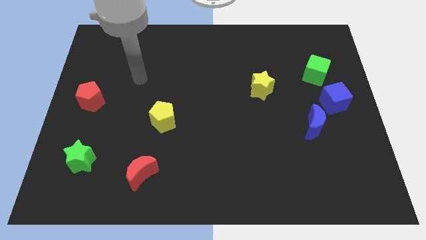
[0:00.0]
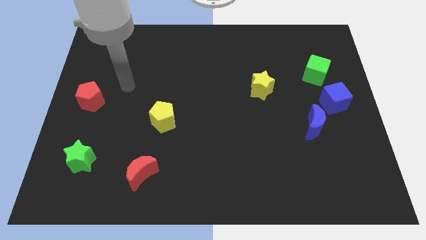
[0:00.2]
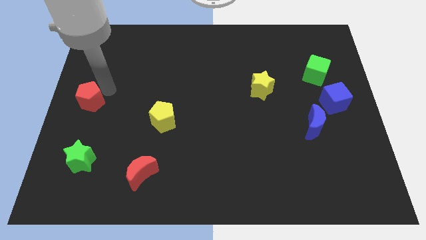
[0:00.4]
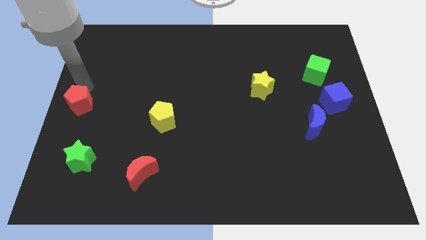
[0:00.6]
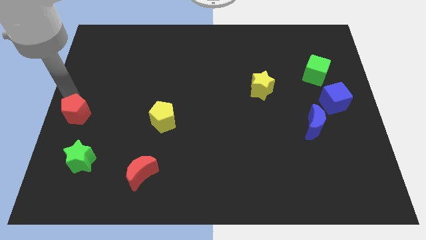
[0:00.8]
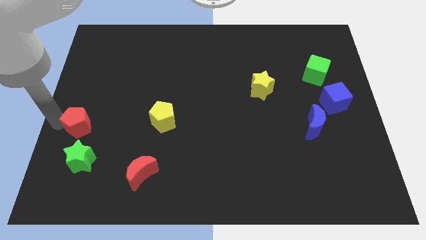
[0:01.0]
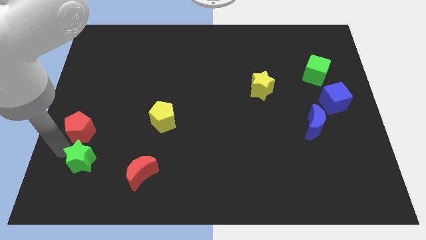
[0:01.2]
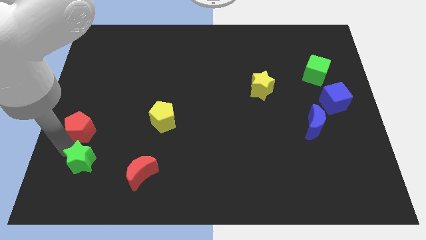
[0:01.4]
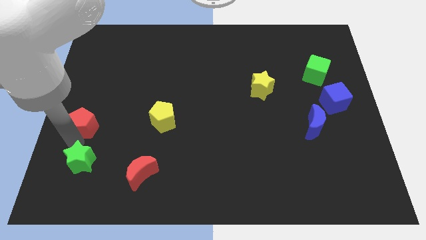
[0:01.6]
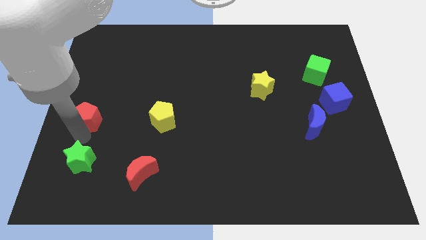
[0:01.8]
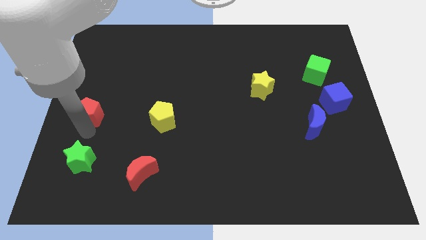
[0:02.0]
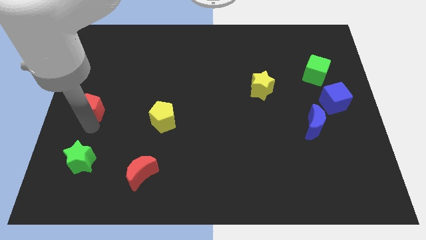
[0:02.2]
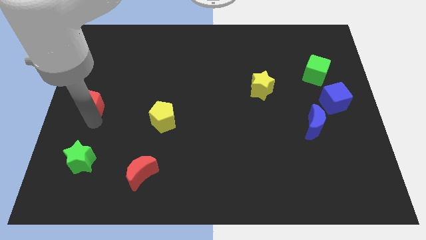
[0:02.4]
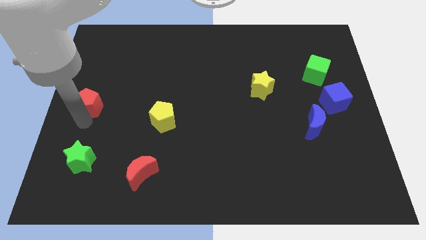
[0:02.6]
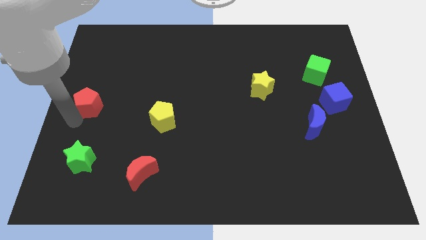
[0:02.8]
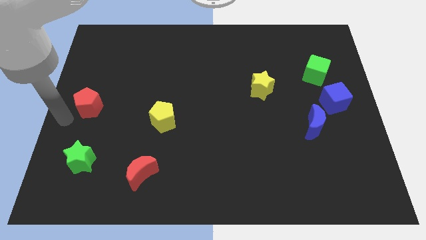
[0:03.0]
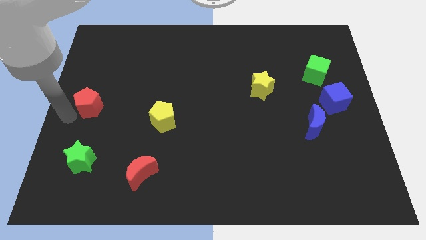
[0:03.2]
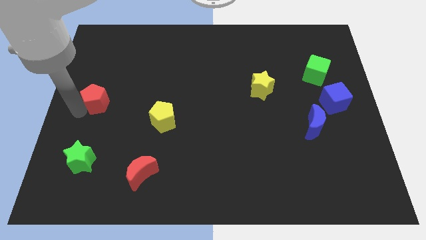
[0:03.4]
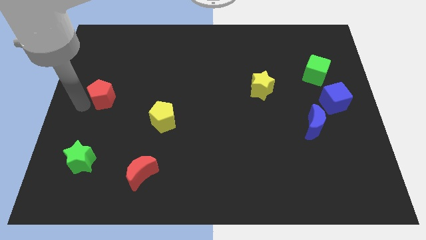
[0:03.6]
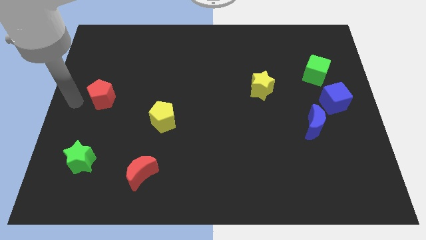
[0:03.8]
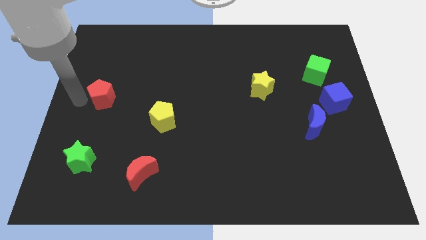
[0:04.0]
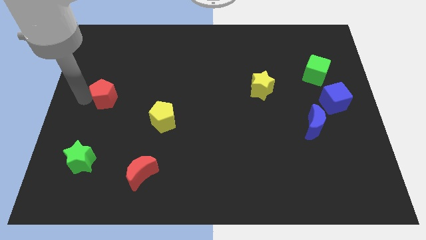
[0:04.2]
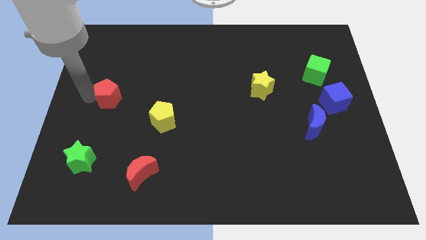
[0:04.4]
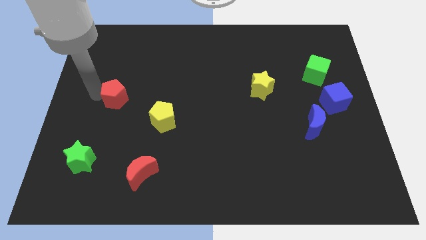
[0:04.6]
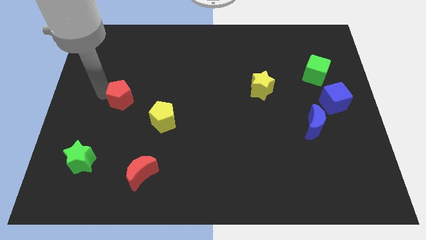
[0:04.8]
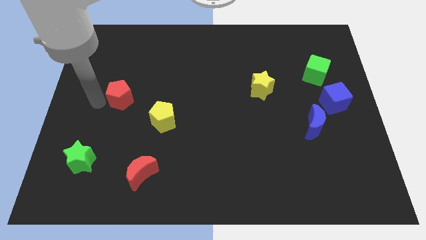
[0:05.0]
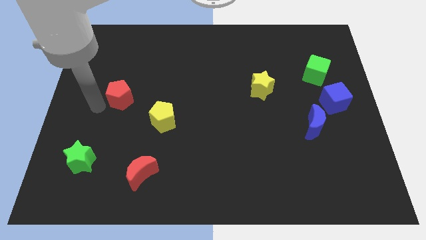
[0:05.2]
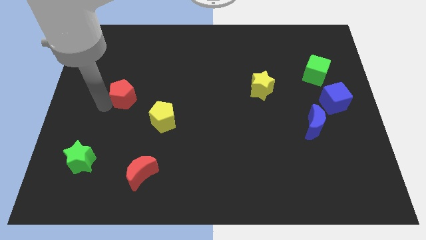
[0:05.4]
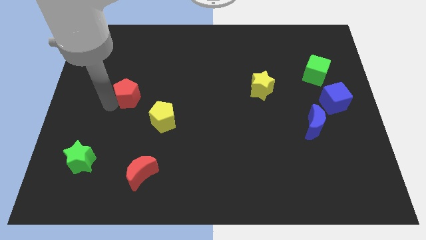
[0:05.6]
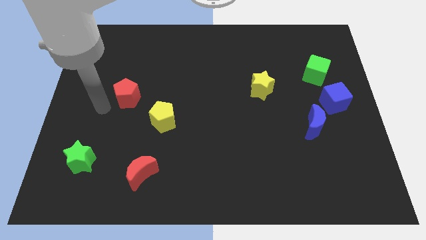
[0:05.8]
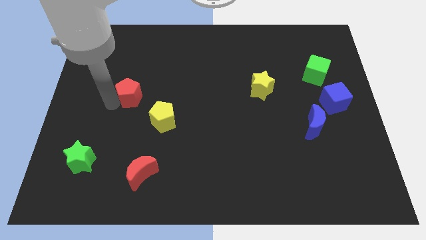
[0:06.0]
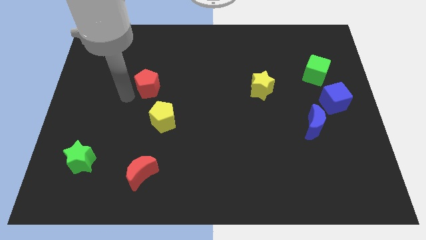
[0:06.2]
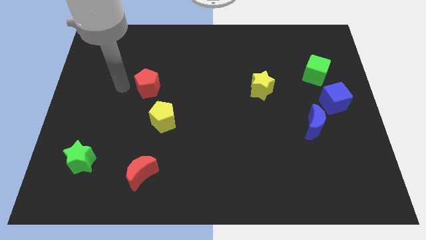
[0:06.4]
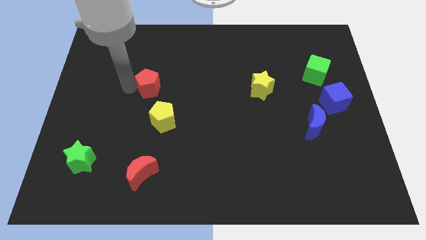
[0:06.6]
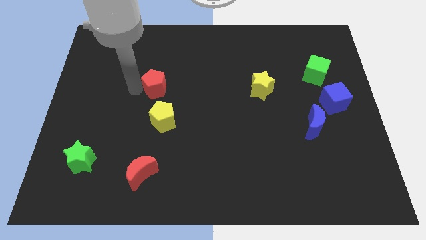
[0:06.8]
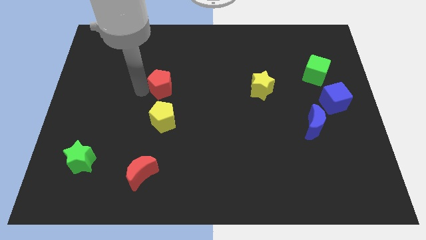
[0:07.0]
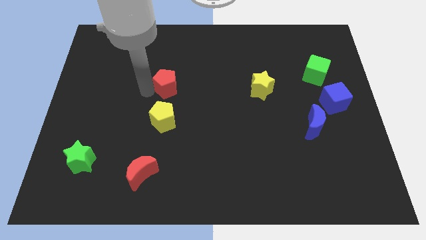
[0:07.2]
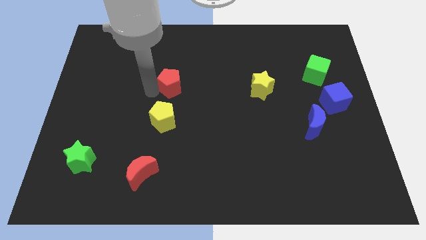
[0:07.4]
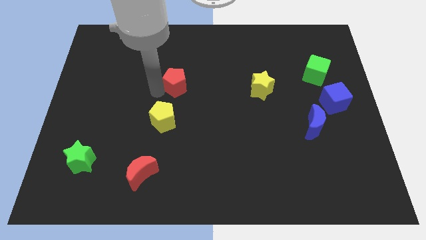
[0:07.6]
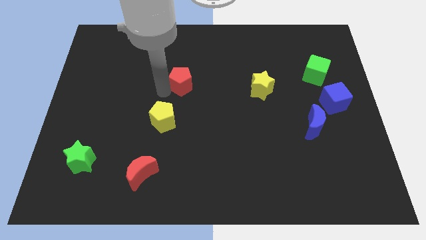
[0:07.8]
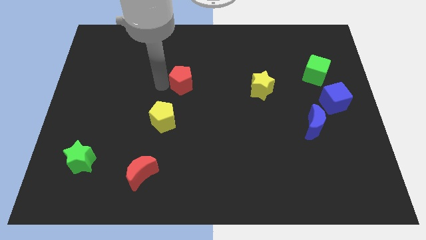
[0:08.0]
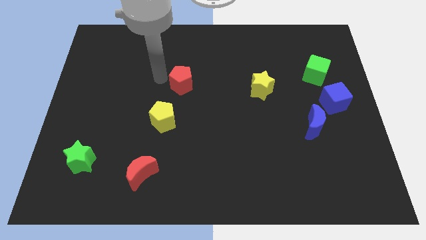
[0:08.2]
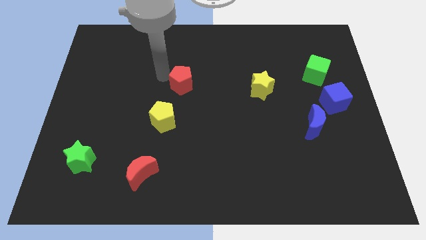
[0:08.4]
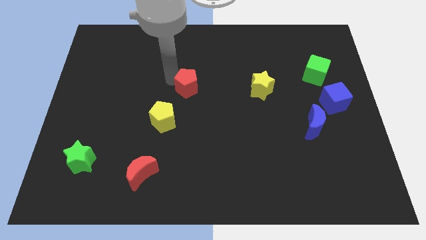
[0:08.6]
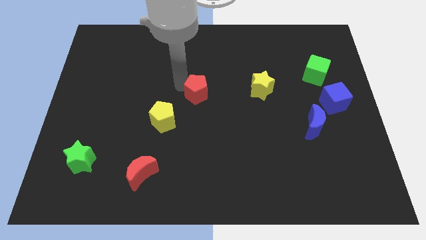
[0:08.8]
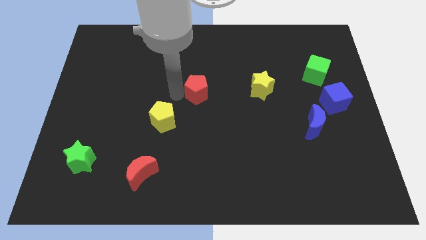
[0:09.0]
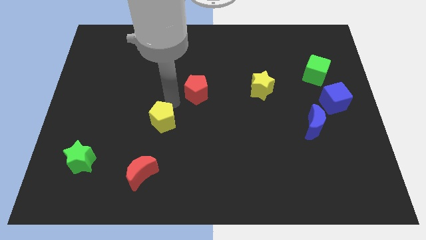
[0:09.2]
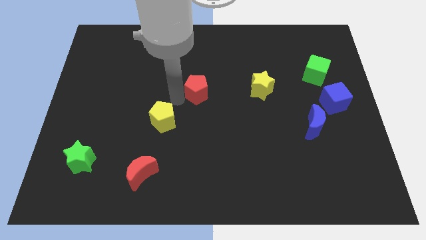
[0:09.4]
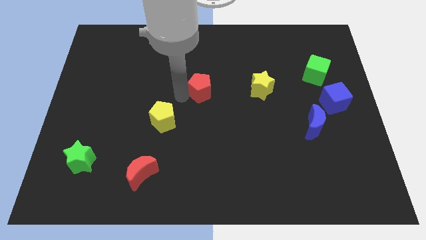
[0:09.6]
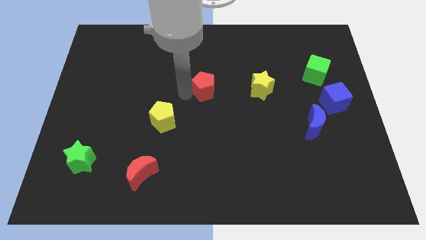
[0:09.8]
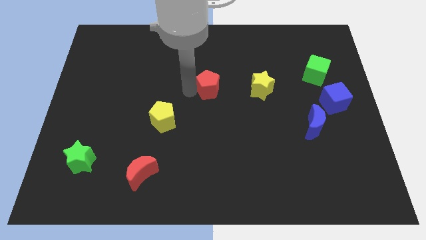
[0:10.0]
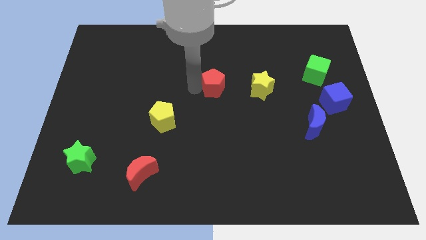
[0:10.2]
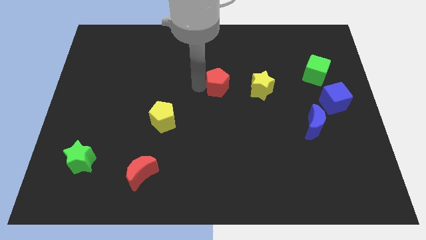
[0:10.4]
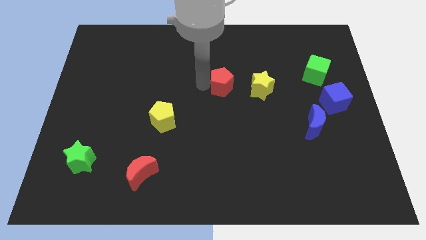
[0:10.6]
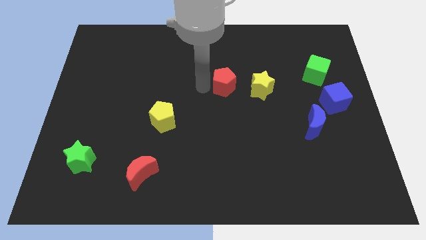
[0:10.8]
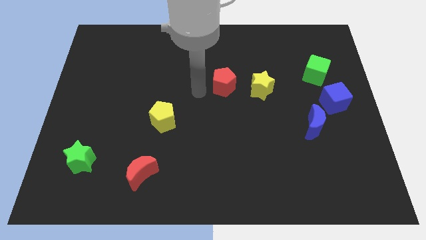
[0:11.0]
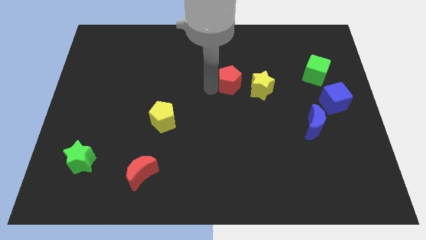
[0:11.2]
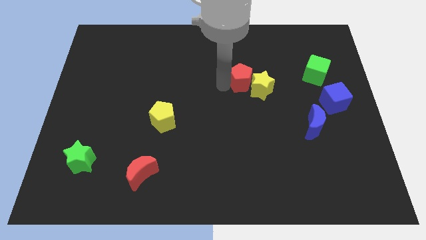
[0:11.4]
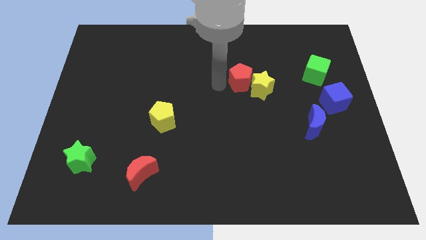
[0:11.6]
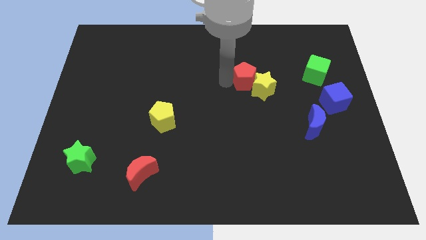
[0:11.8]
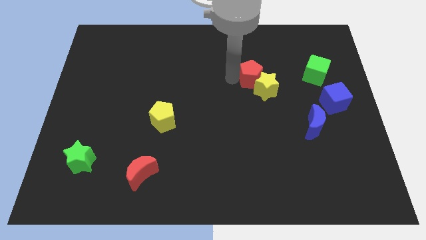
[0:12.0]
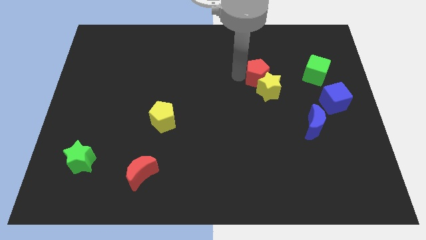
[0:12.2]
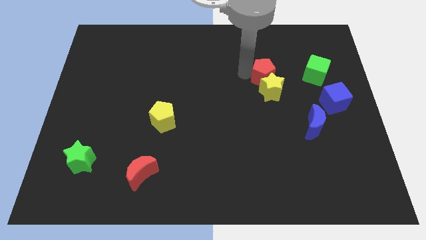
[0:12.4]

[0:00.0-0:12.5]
put the red pentagon diagonally up and to the right of the yellow star
